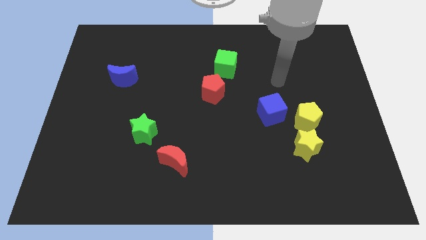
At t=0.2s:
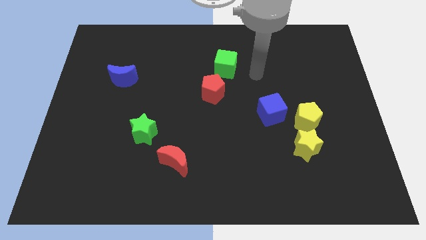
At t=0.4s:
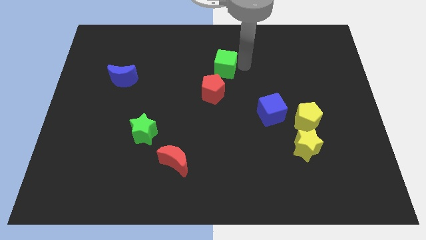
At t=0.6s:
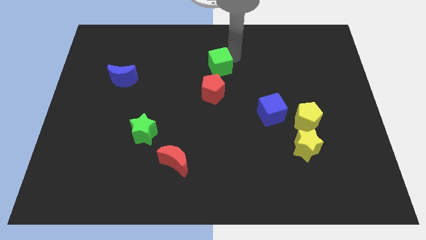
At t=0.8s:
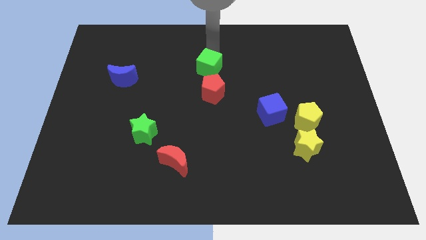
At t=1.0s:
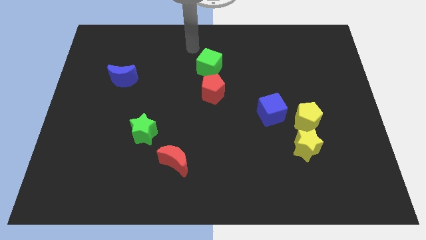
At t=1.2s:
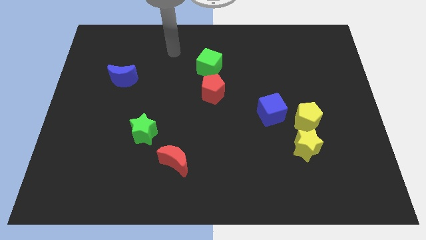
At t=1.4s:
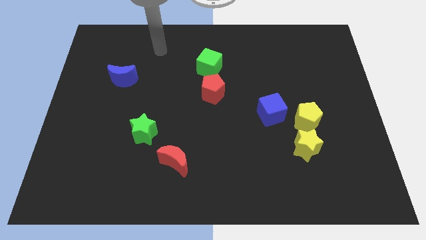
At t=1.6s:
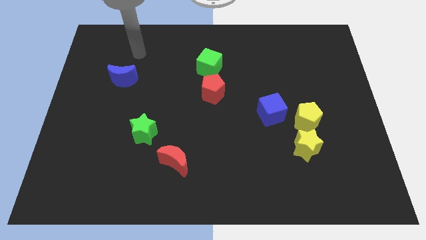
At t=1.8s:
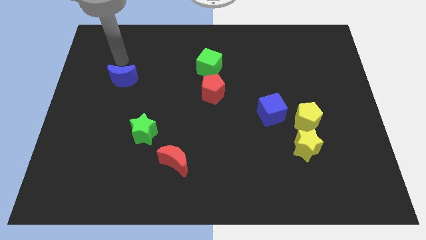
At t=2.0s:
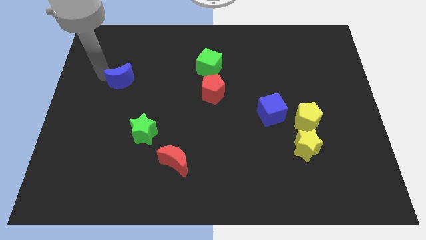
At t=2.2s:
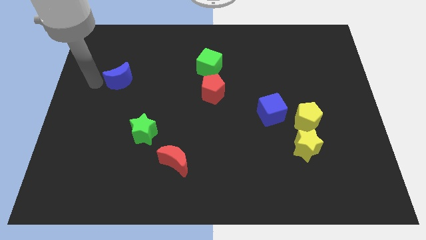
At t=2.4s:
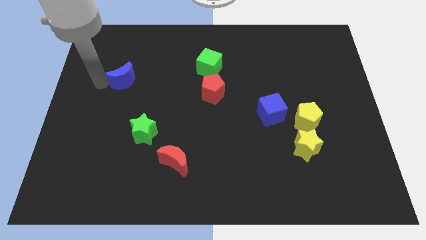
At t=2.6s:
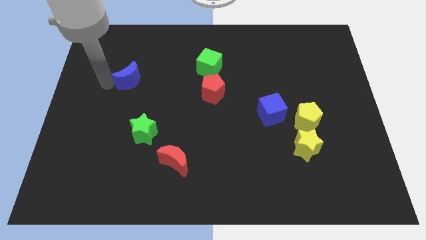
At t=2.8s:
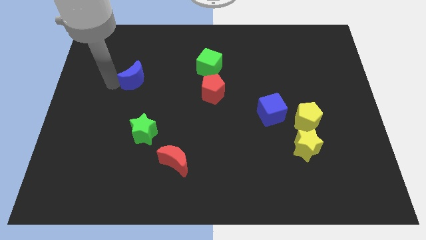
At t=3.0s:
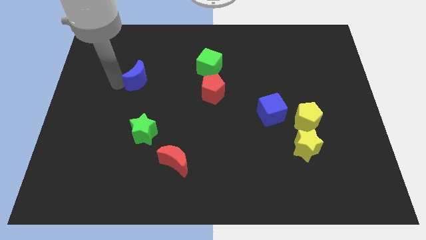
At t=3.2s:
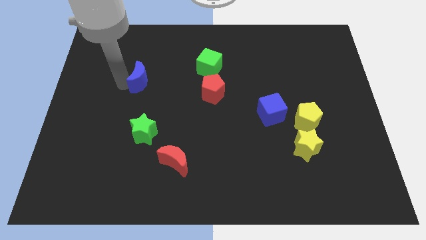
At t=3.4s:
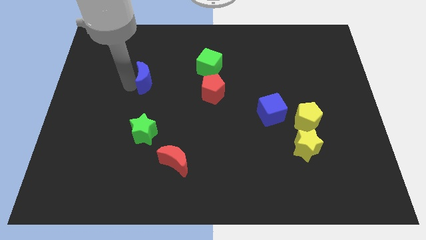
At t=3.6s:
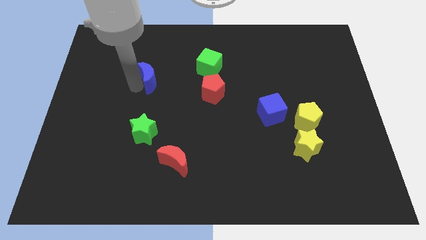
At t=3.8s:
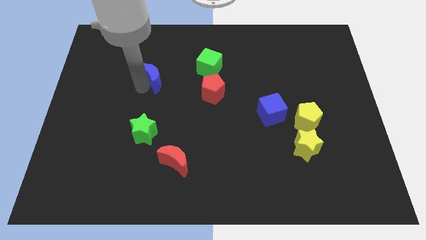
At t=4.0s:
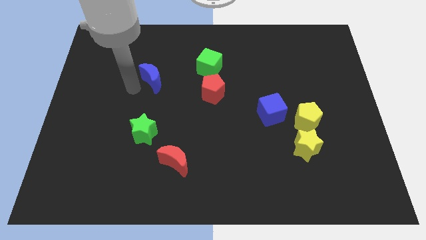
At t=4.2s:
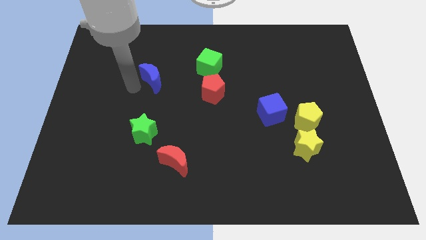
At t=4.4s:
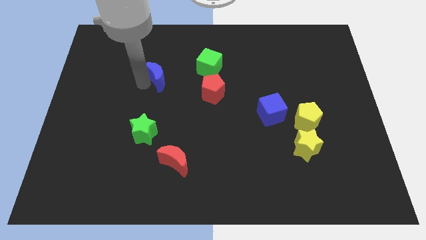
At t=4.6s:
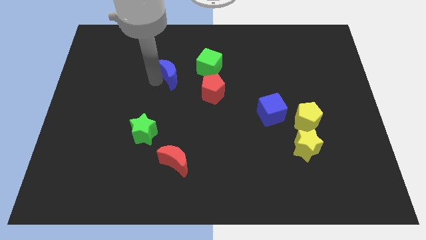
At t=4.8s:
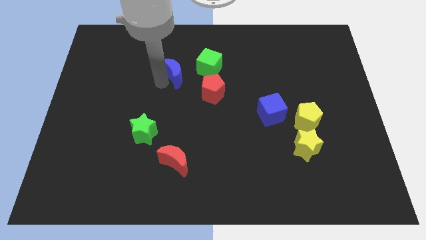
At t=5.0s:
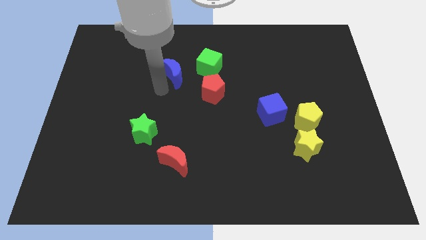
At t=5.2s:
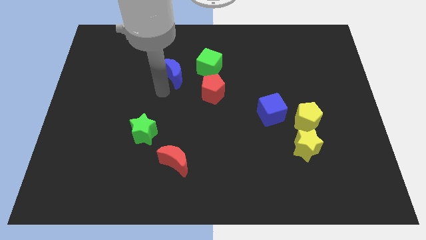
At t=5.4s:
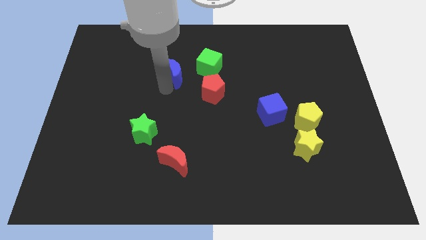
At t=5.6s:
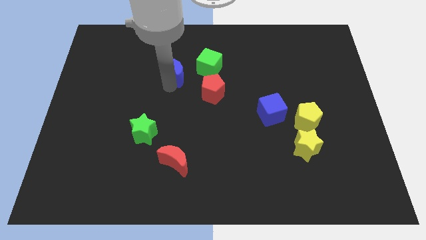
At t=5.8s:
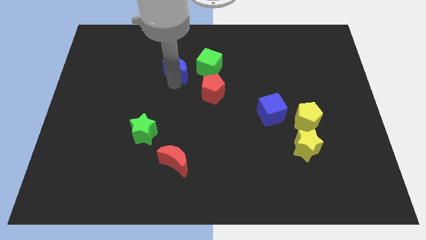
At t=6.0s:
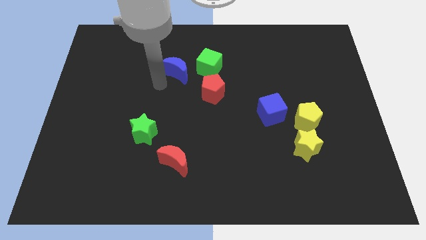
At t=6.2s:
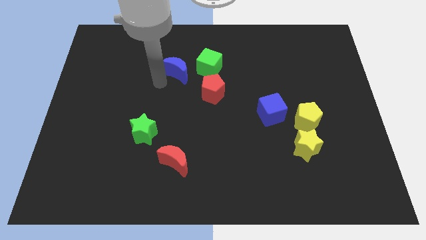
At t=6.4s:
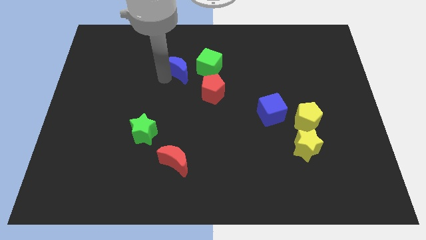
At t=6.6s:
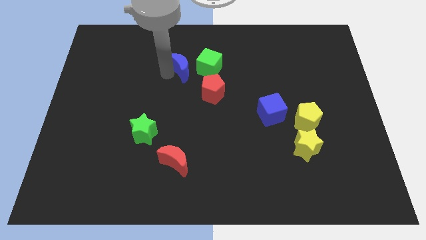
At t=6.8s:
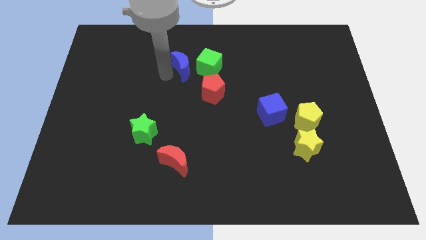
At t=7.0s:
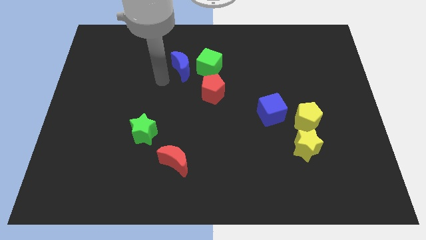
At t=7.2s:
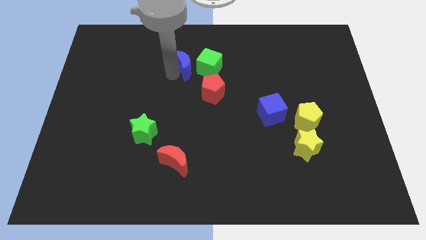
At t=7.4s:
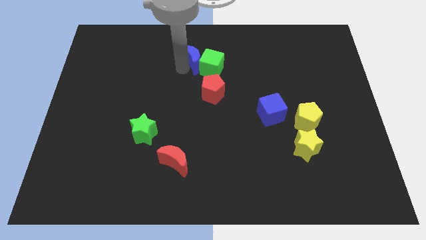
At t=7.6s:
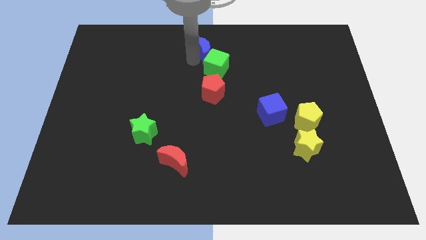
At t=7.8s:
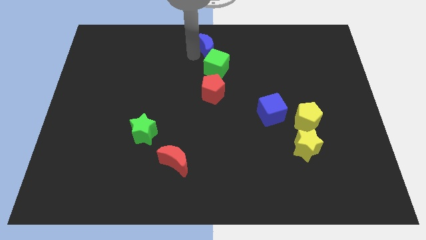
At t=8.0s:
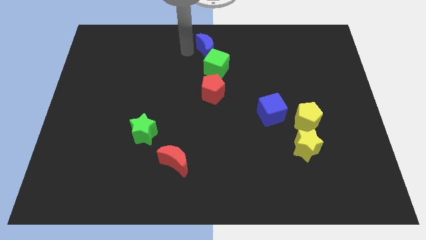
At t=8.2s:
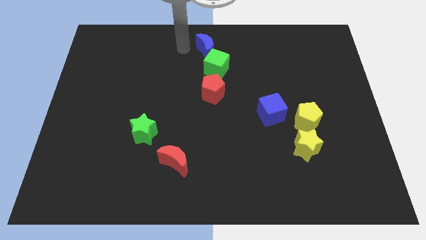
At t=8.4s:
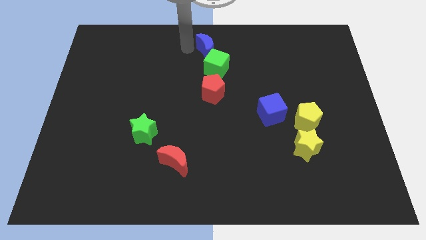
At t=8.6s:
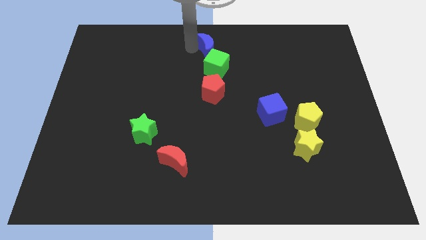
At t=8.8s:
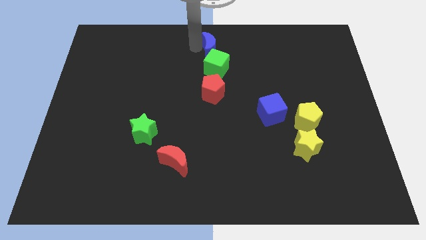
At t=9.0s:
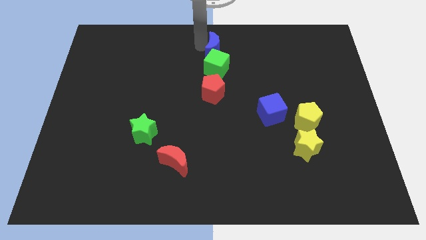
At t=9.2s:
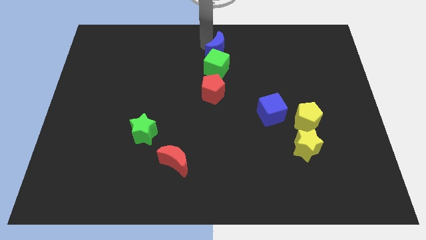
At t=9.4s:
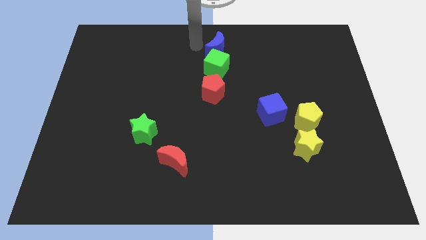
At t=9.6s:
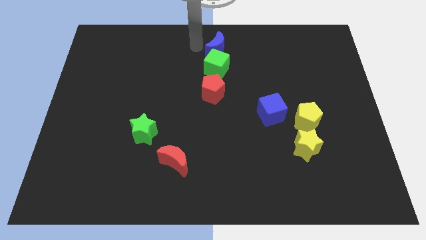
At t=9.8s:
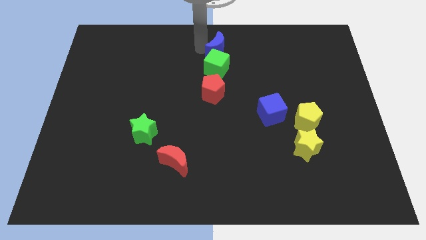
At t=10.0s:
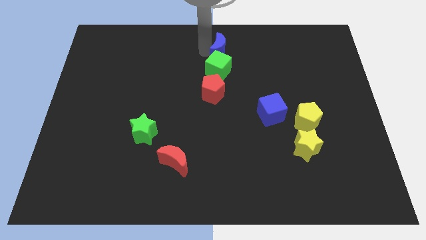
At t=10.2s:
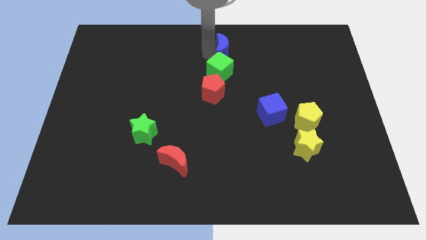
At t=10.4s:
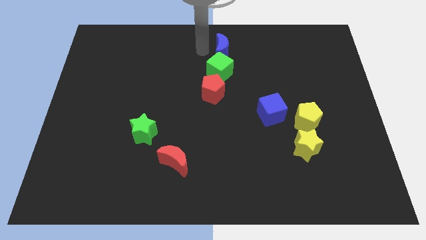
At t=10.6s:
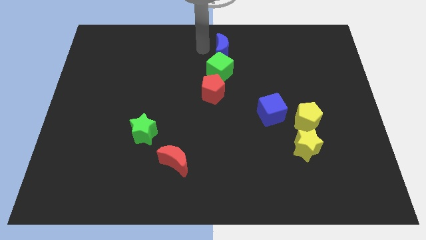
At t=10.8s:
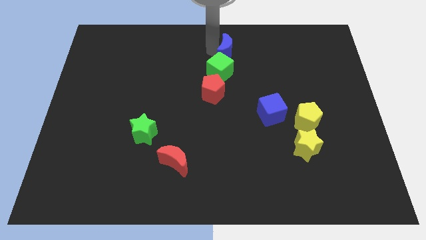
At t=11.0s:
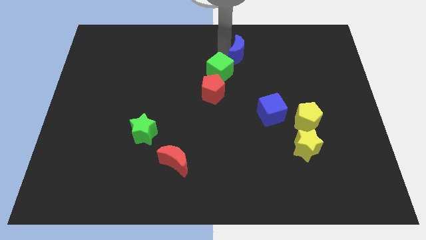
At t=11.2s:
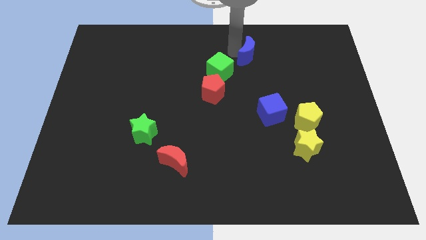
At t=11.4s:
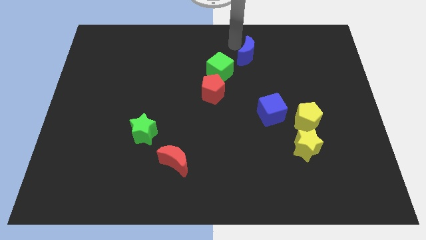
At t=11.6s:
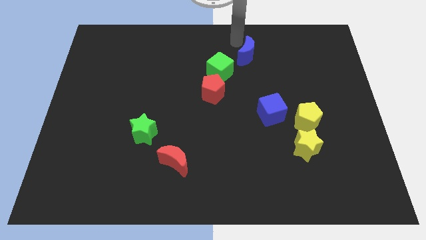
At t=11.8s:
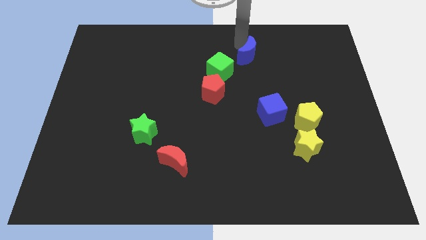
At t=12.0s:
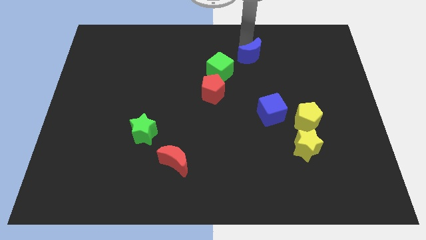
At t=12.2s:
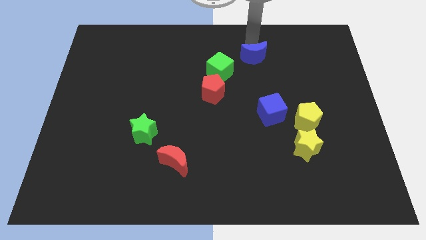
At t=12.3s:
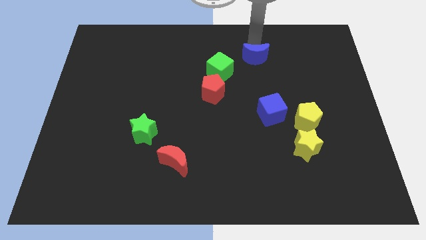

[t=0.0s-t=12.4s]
put the blue moon to the right side of the green cube

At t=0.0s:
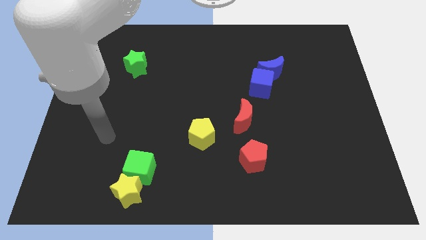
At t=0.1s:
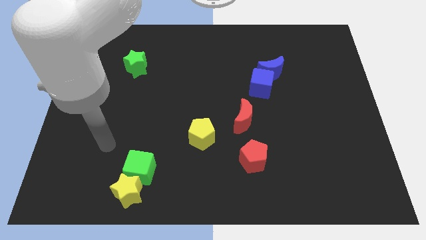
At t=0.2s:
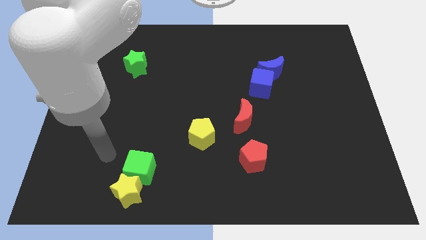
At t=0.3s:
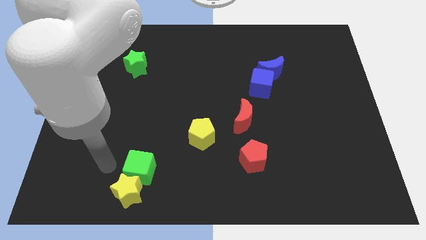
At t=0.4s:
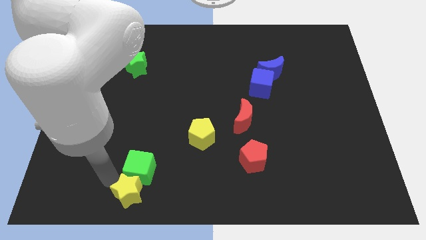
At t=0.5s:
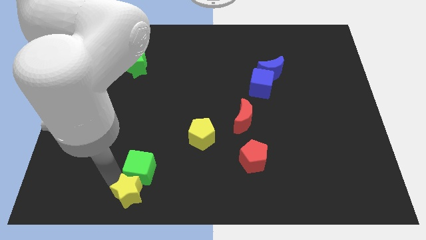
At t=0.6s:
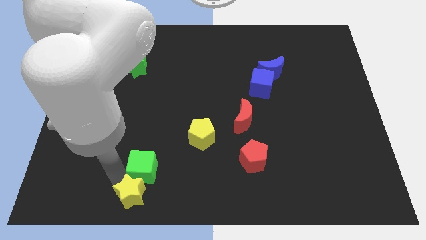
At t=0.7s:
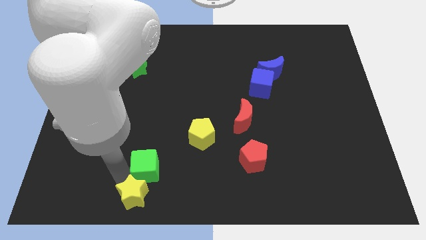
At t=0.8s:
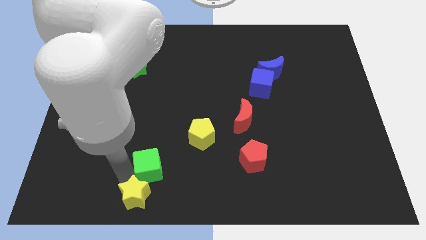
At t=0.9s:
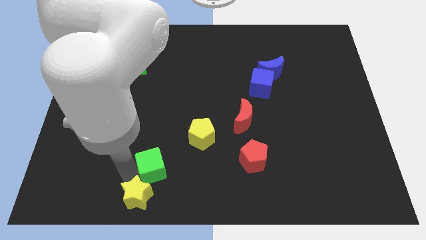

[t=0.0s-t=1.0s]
slide the green cube diagonally down and to the left of the yellow pentagon
